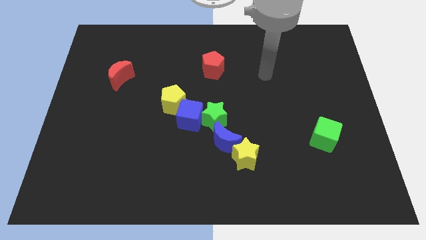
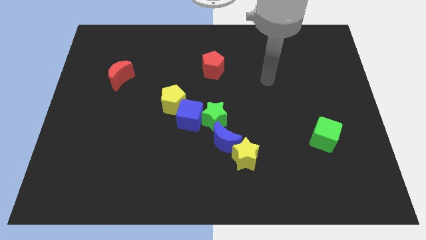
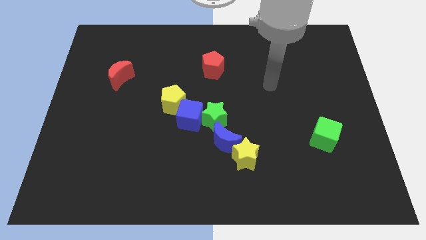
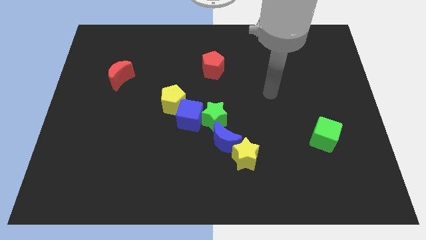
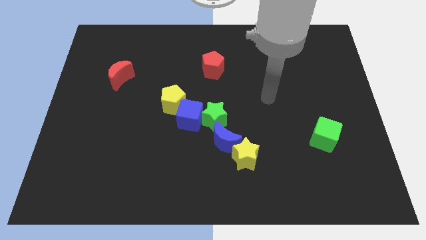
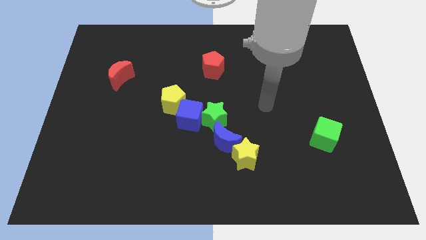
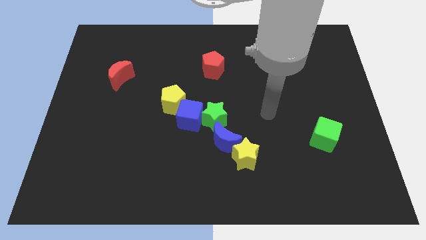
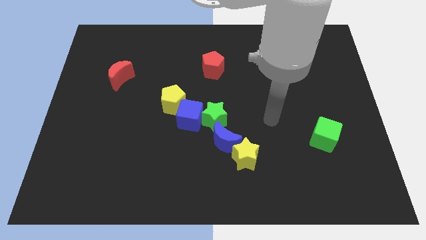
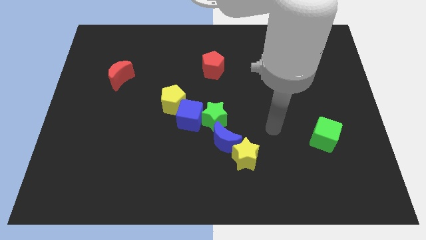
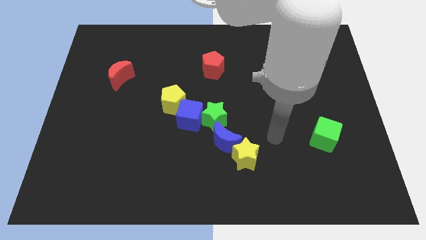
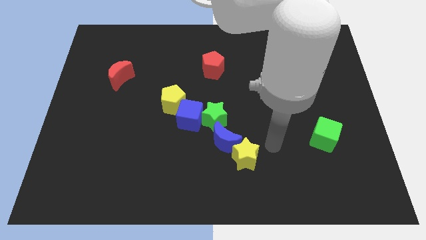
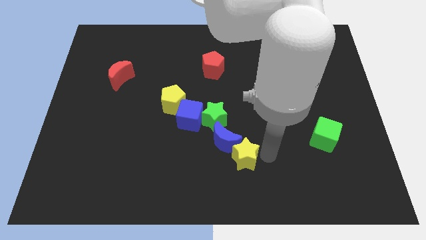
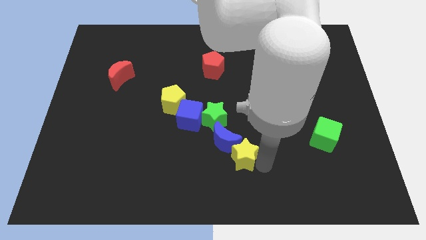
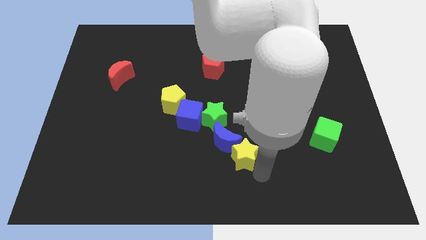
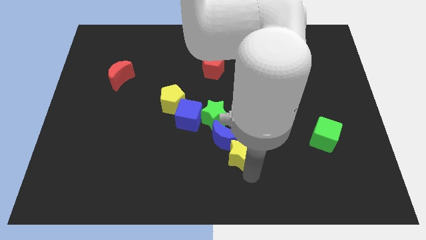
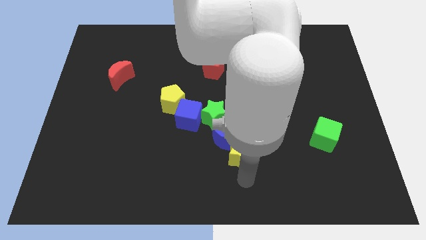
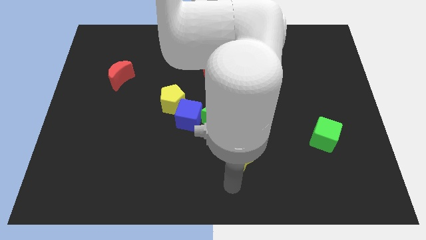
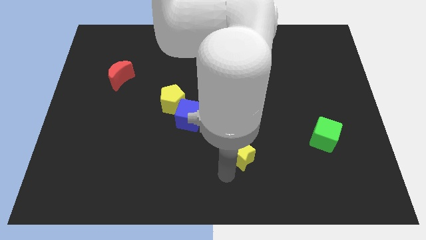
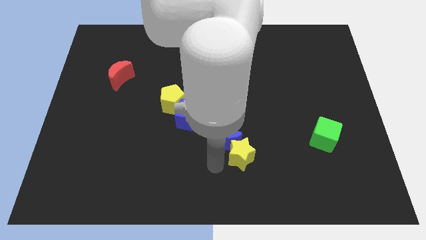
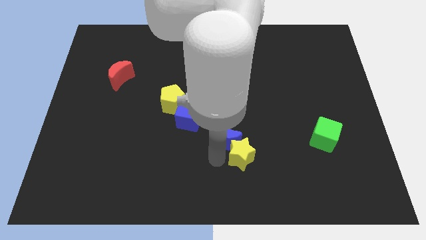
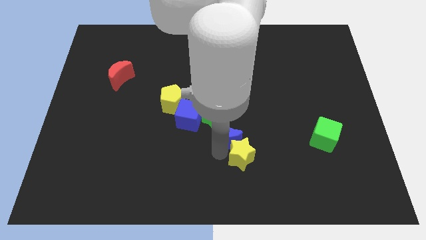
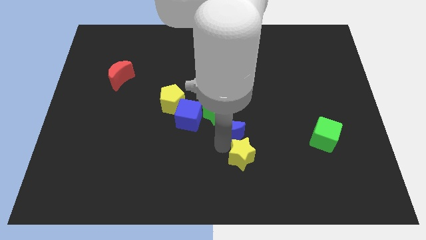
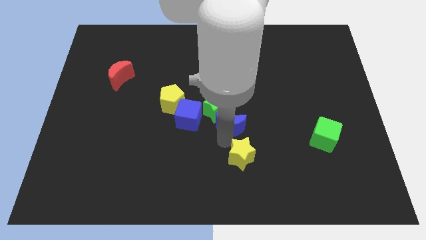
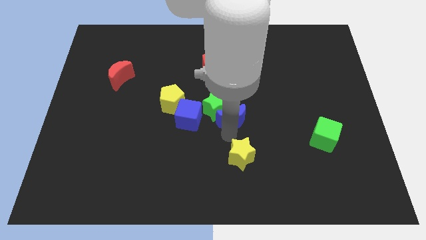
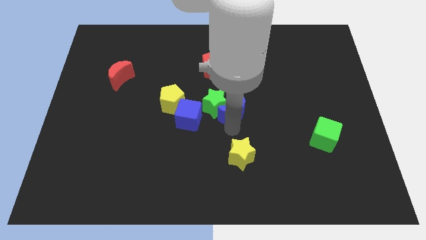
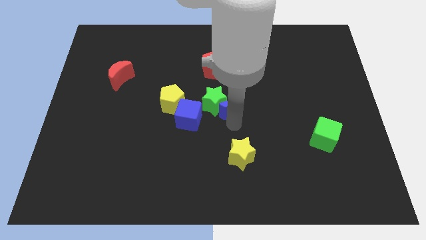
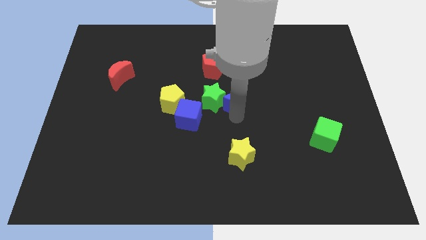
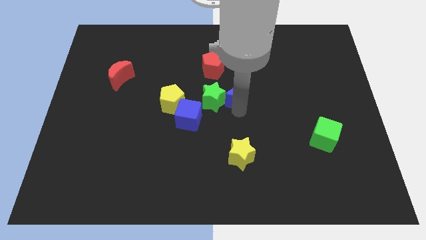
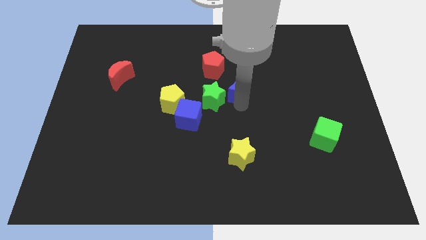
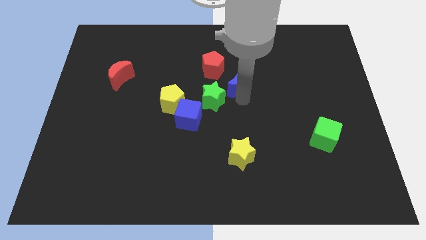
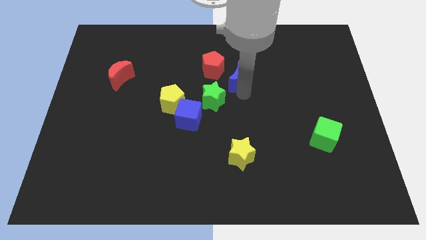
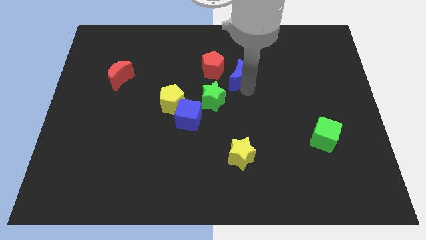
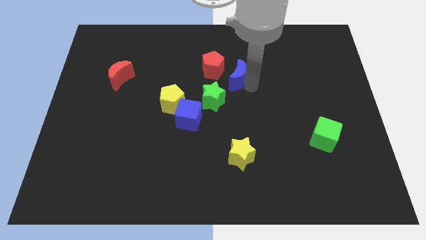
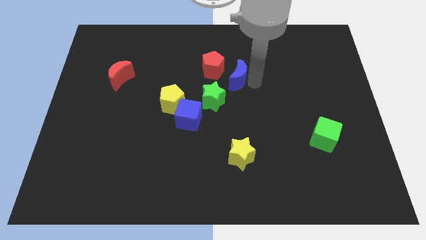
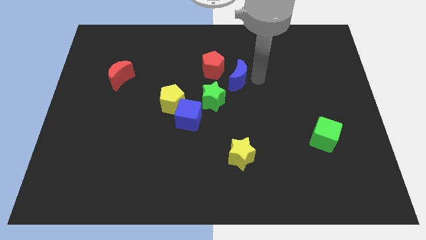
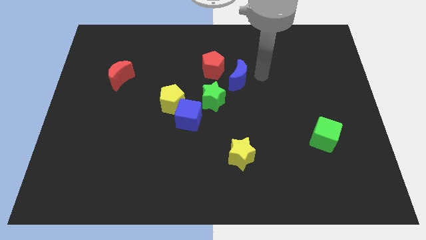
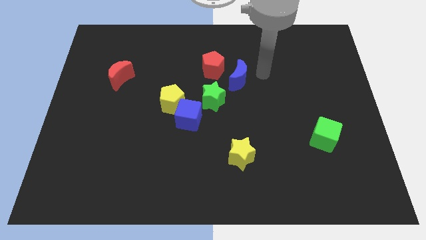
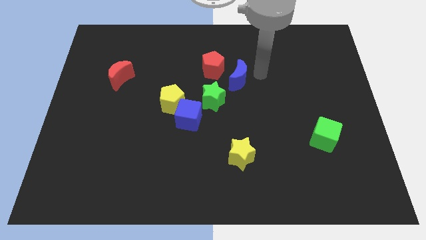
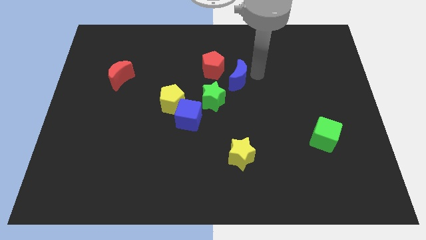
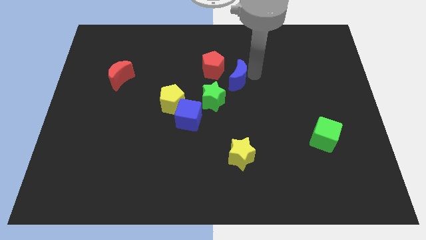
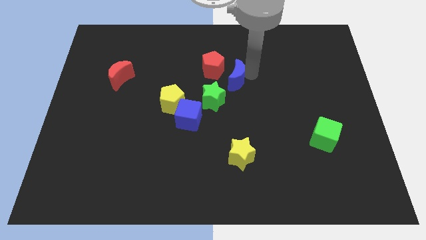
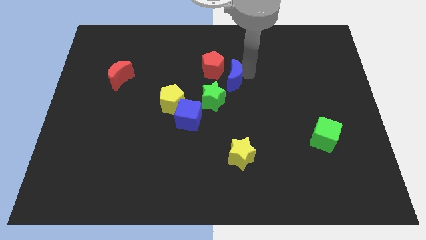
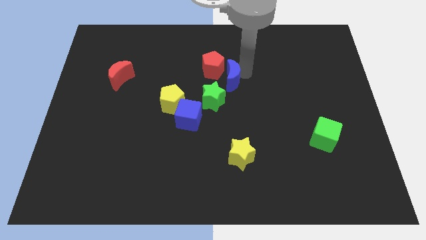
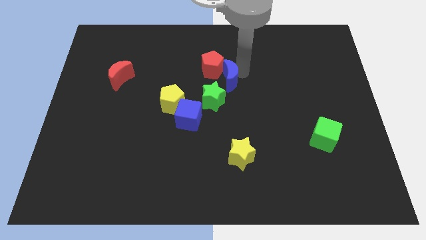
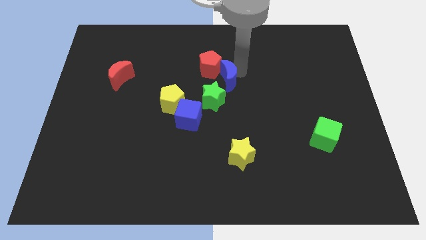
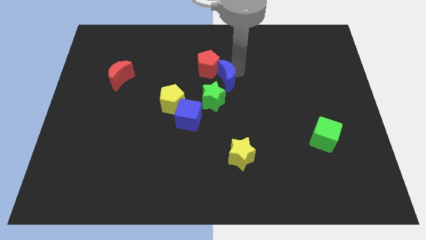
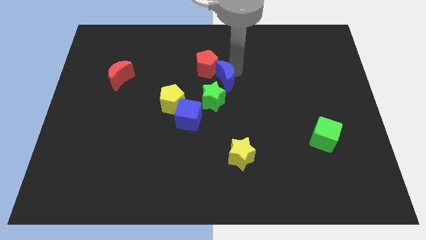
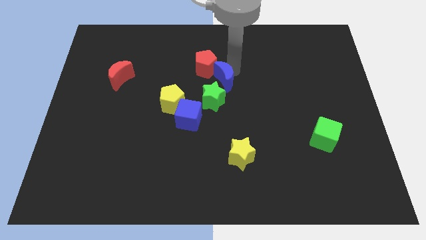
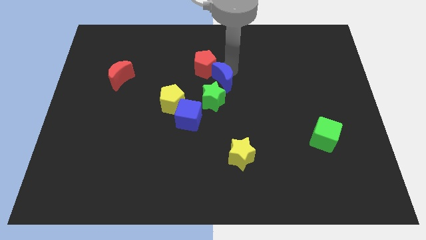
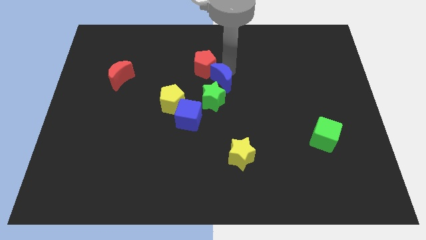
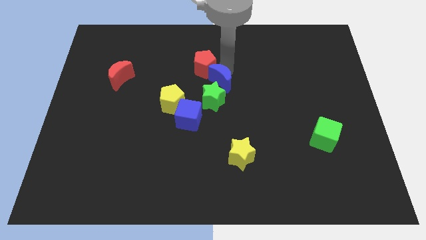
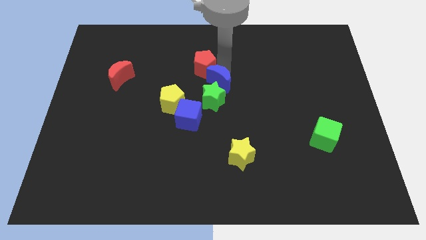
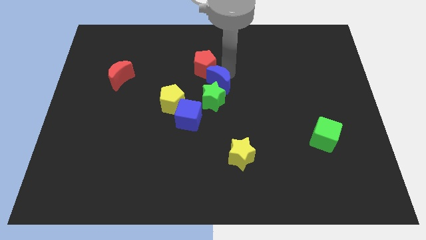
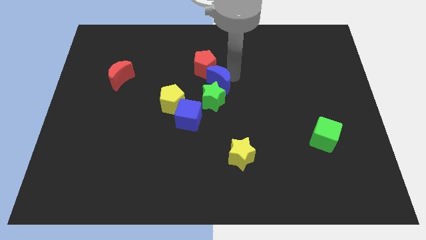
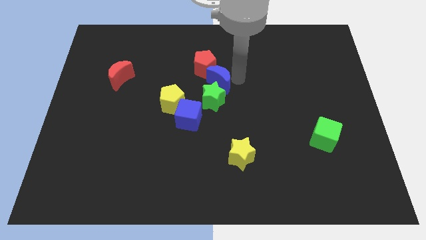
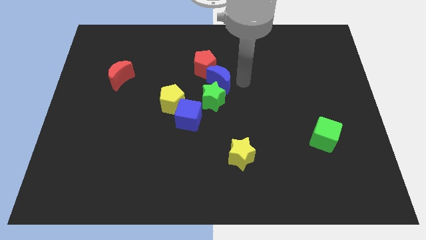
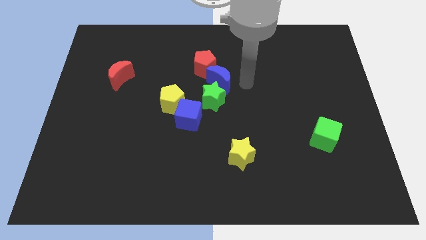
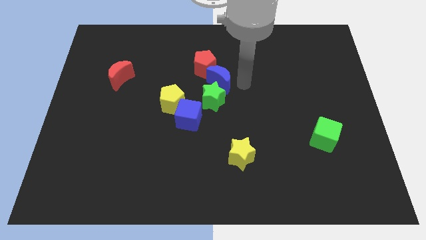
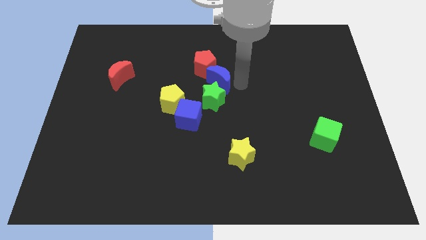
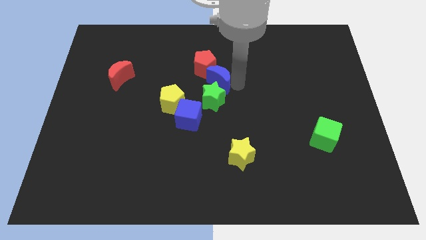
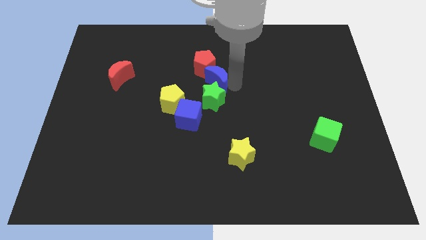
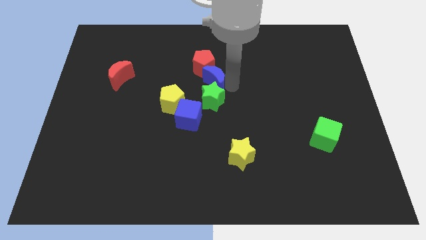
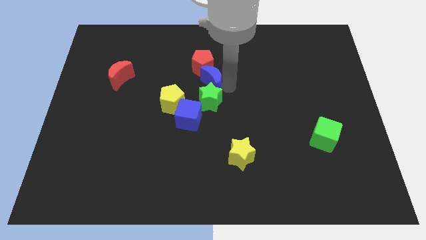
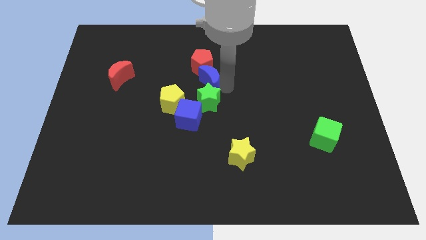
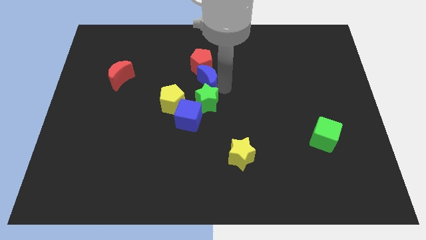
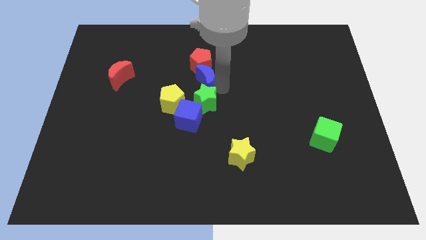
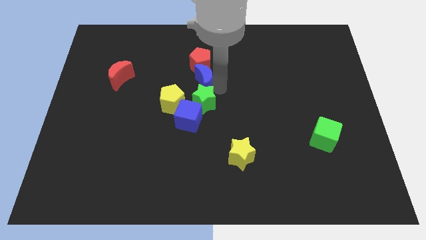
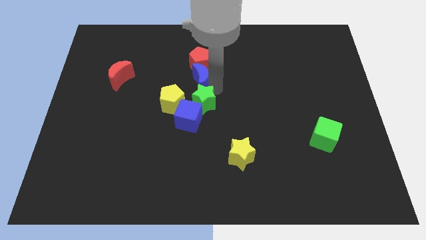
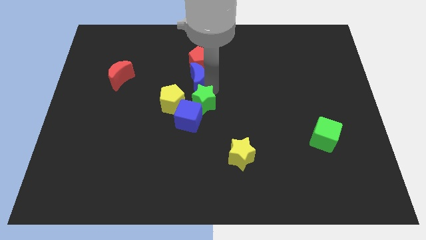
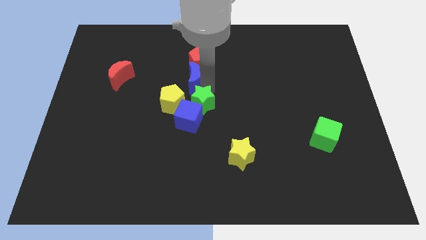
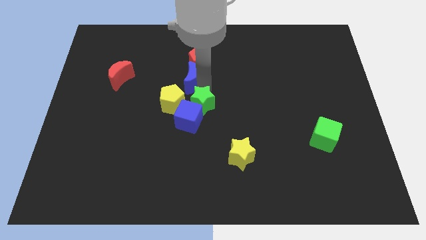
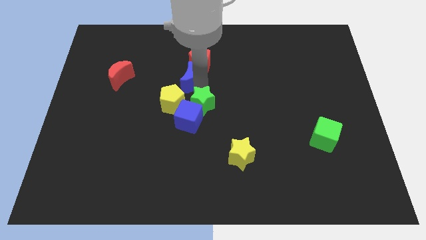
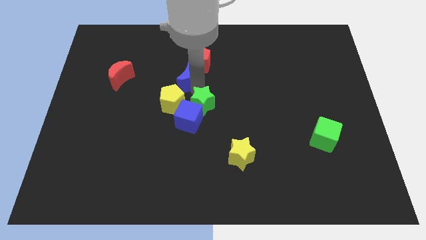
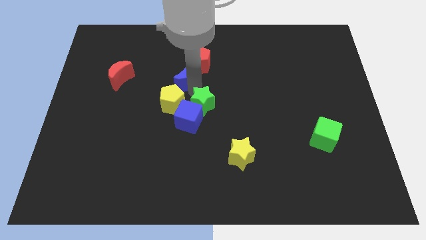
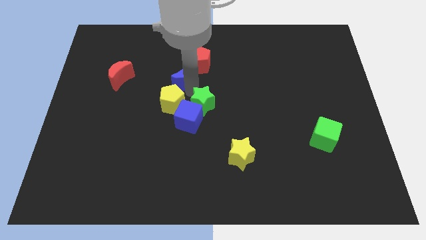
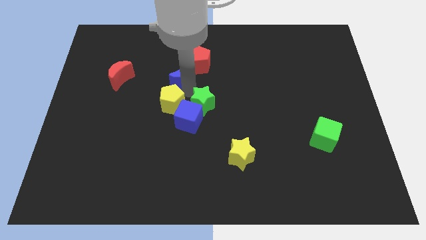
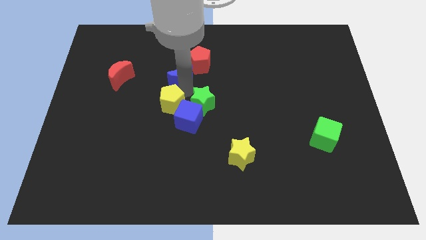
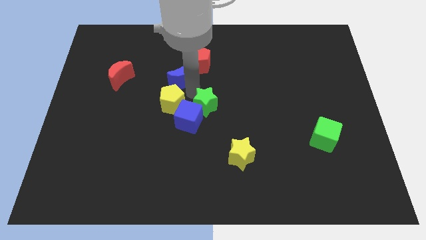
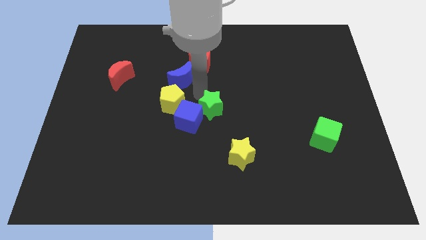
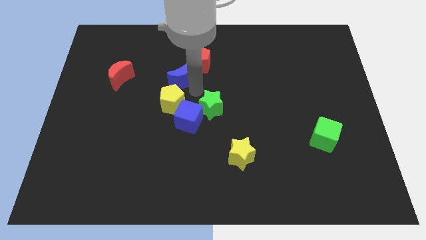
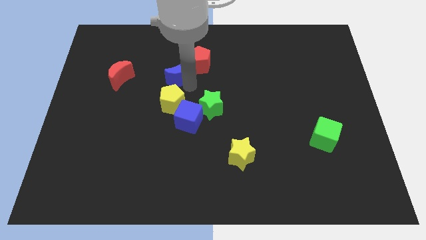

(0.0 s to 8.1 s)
push the blue moon just left of the red pentagon
